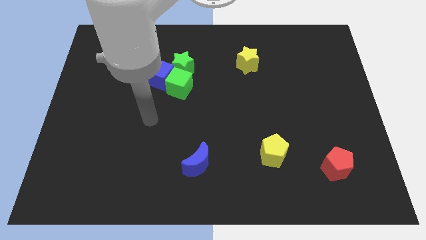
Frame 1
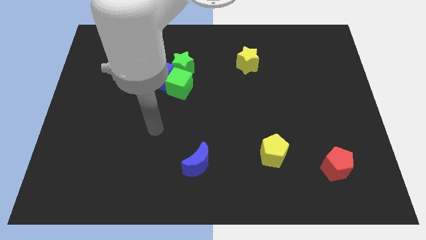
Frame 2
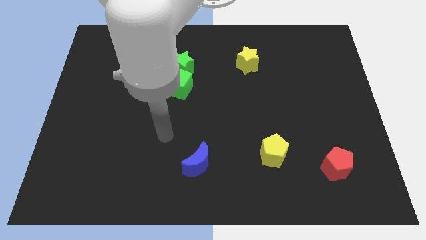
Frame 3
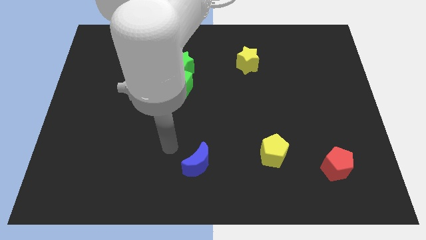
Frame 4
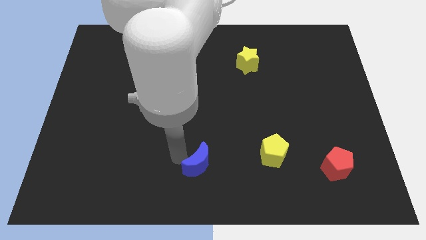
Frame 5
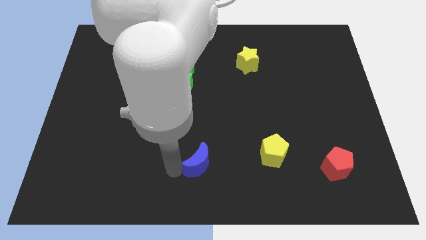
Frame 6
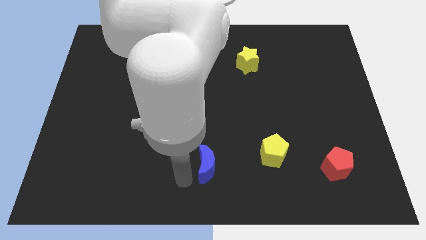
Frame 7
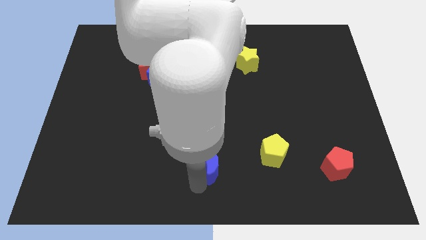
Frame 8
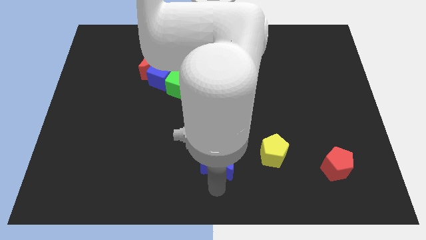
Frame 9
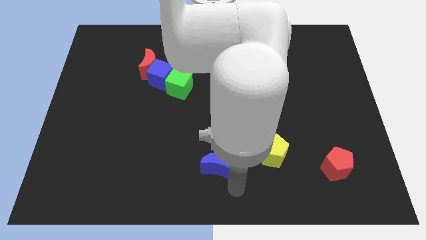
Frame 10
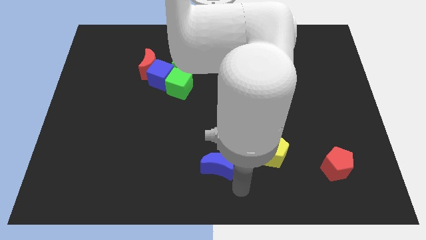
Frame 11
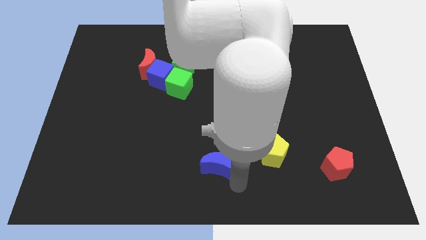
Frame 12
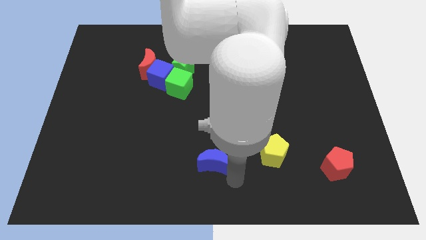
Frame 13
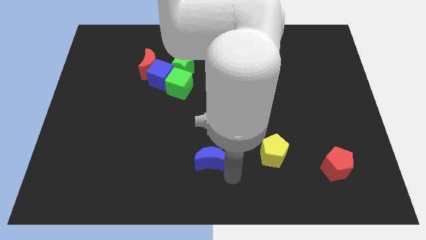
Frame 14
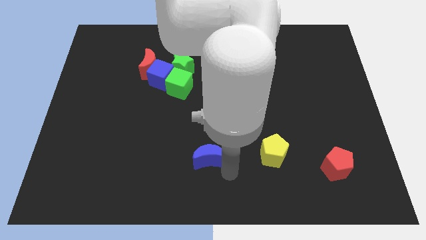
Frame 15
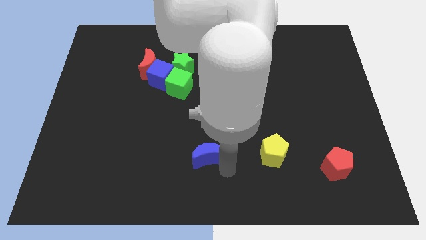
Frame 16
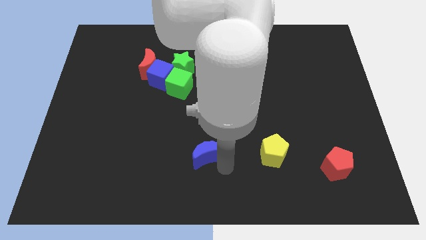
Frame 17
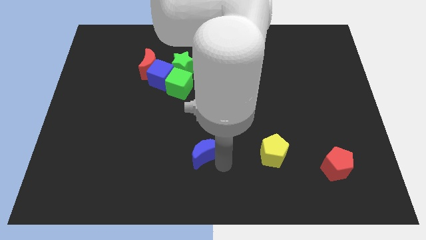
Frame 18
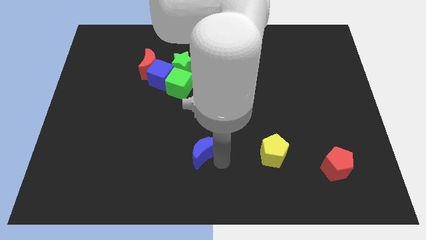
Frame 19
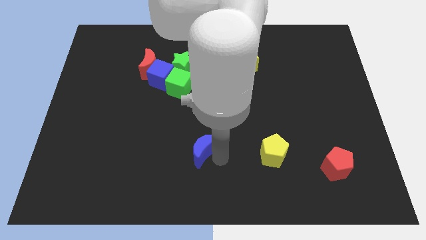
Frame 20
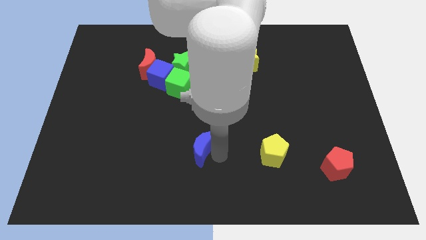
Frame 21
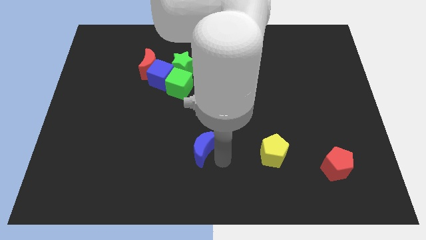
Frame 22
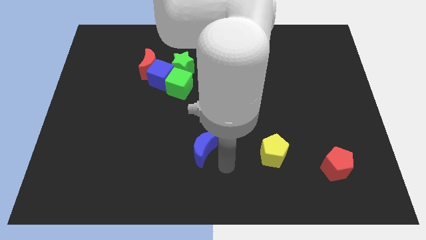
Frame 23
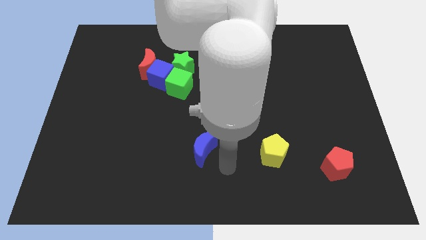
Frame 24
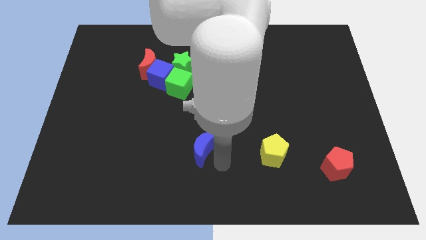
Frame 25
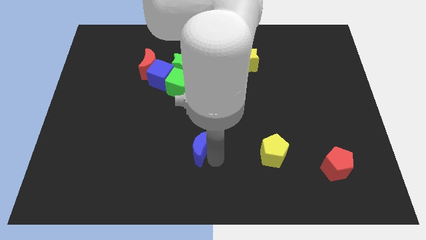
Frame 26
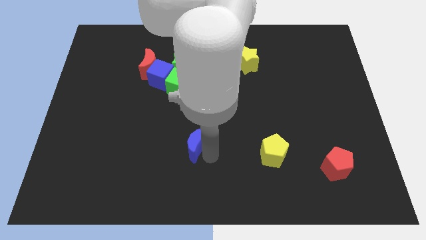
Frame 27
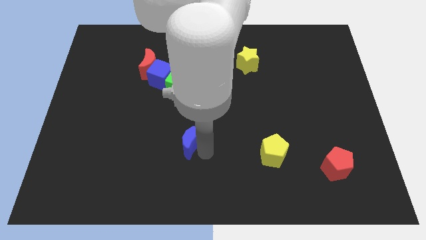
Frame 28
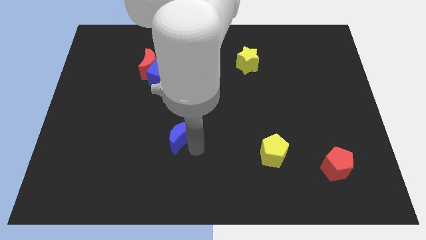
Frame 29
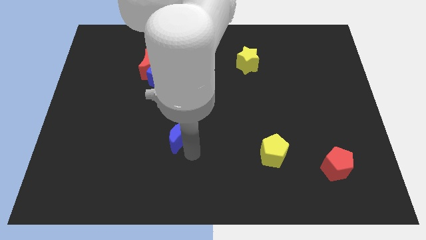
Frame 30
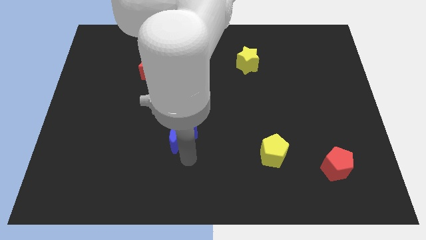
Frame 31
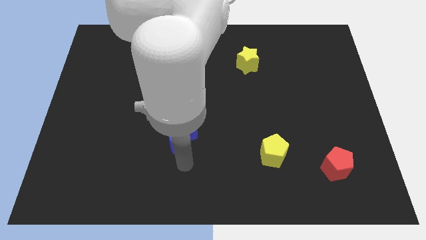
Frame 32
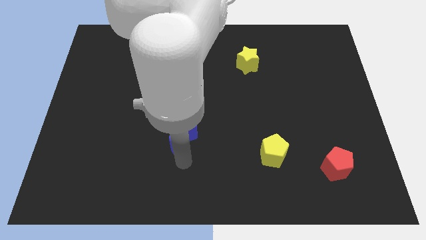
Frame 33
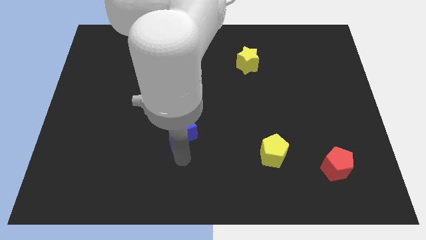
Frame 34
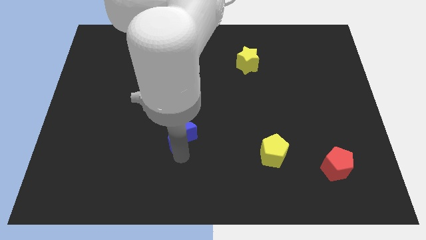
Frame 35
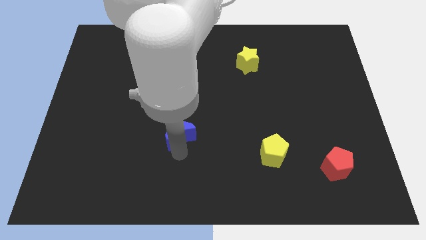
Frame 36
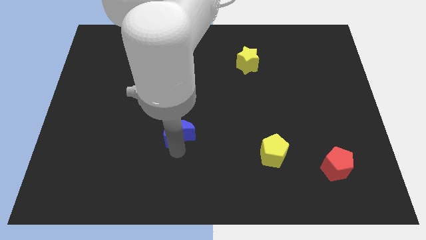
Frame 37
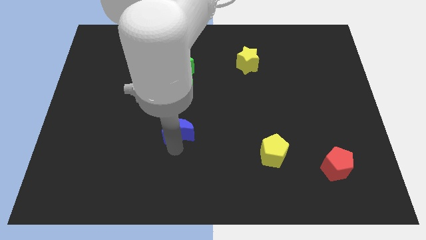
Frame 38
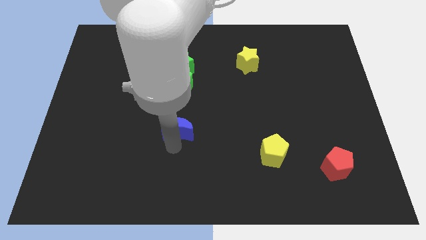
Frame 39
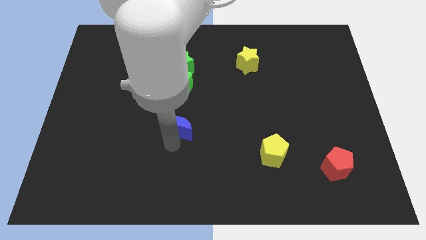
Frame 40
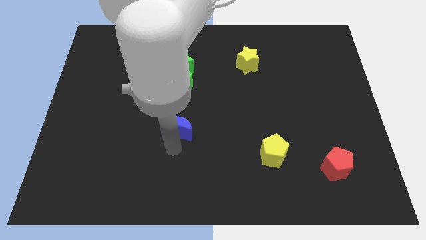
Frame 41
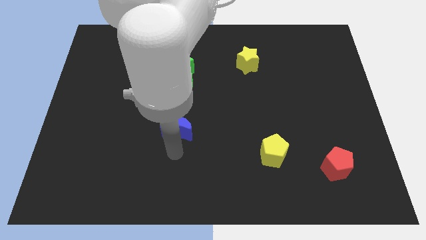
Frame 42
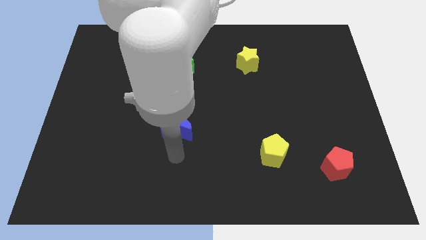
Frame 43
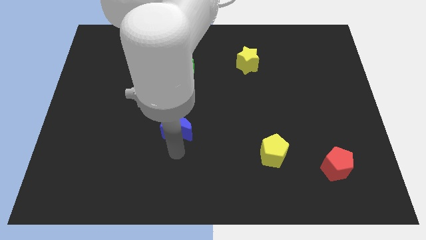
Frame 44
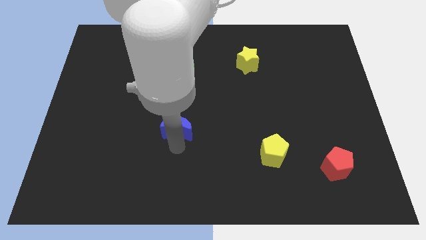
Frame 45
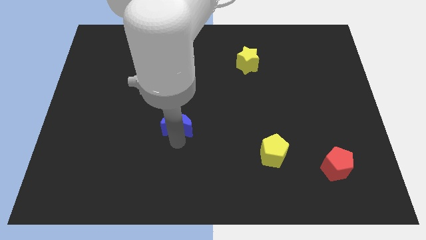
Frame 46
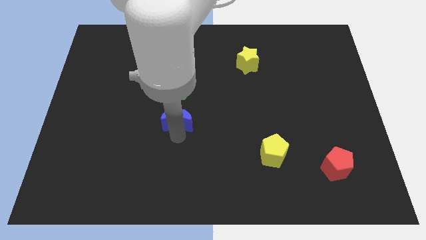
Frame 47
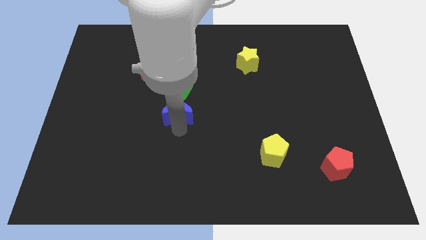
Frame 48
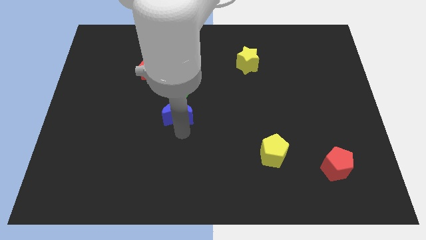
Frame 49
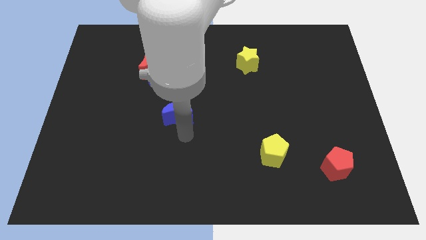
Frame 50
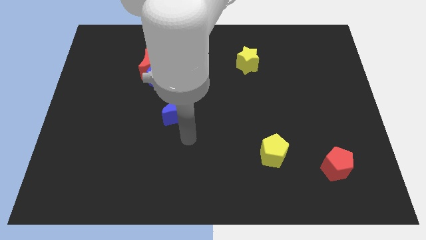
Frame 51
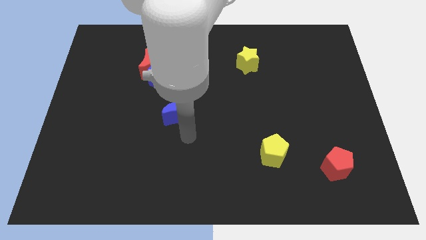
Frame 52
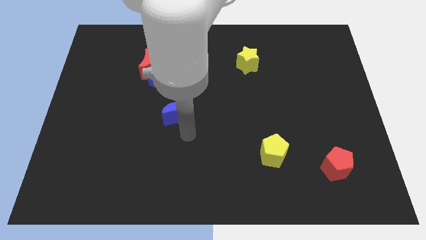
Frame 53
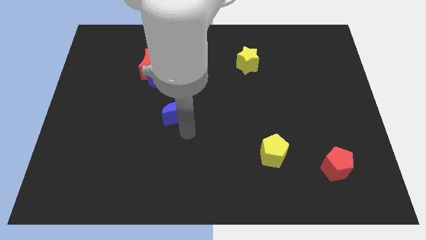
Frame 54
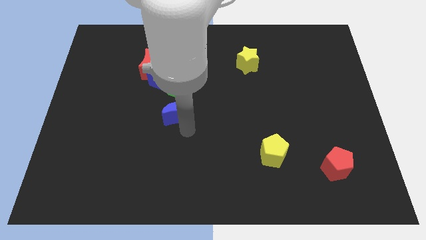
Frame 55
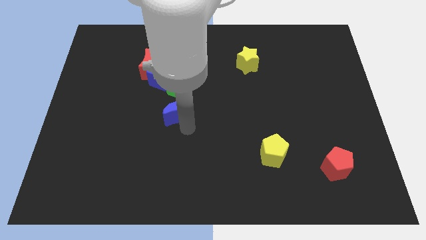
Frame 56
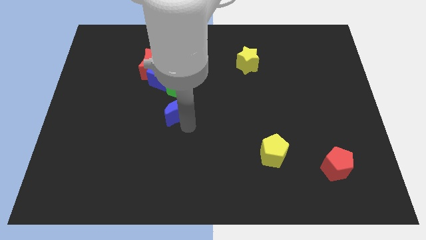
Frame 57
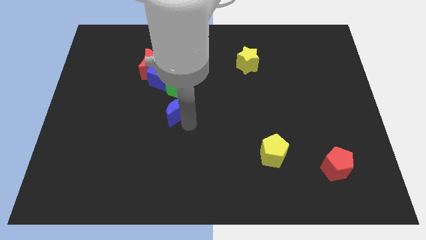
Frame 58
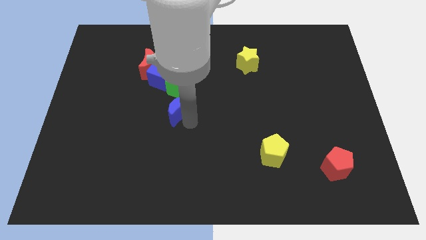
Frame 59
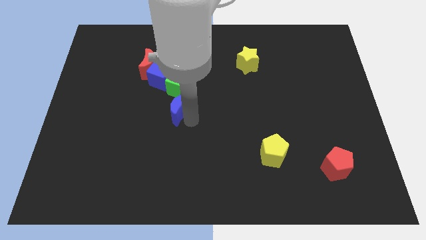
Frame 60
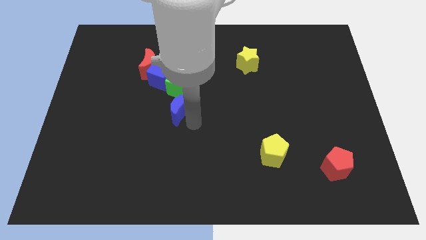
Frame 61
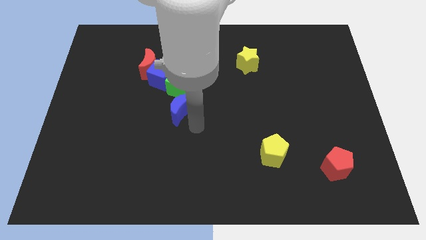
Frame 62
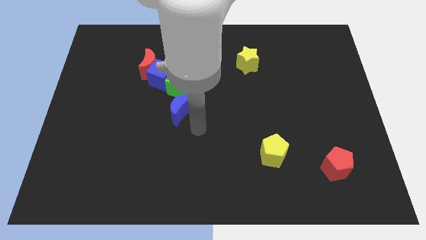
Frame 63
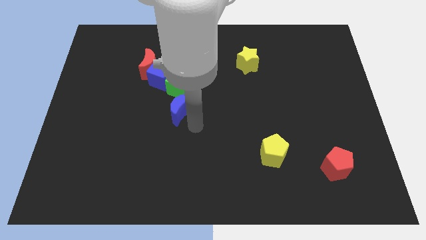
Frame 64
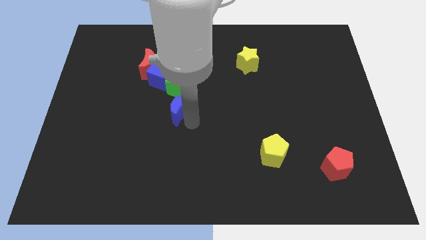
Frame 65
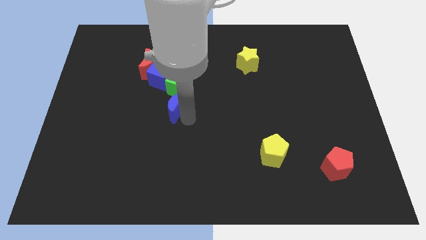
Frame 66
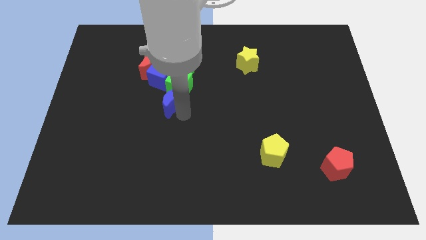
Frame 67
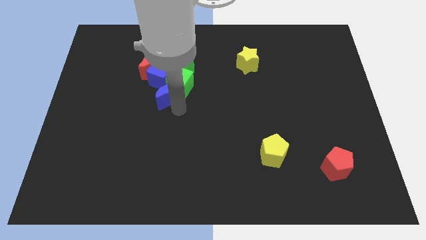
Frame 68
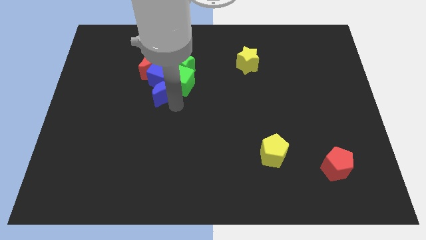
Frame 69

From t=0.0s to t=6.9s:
push the blue moon close to the blue cube

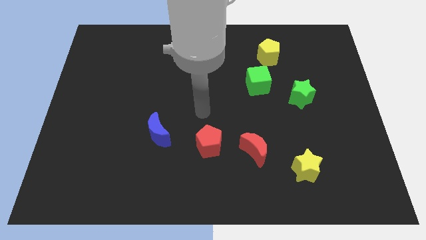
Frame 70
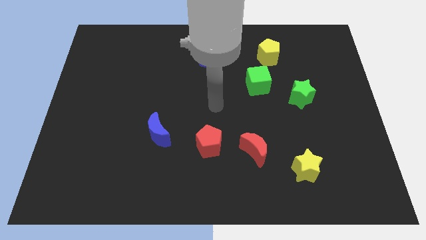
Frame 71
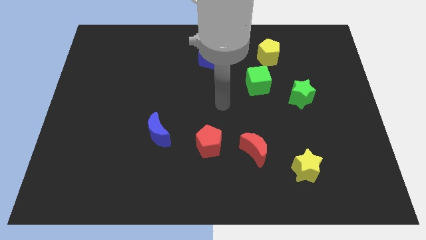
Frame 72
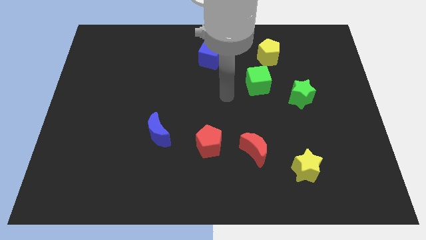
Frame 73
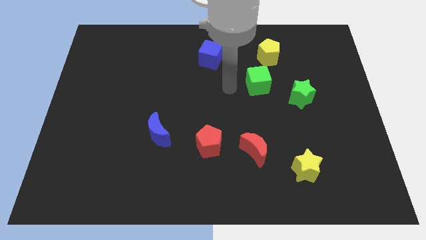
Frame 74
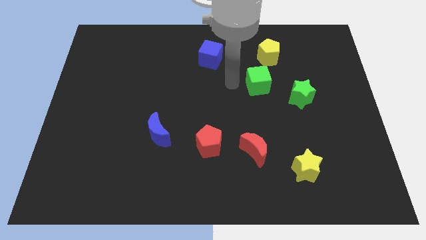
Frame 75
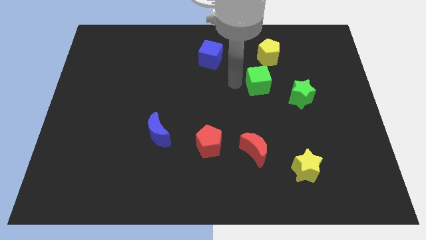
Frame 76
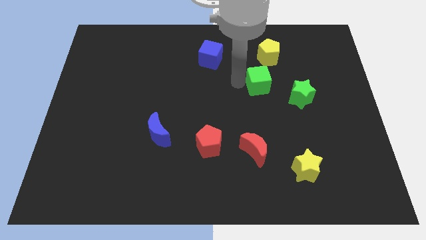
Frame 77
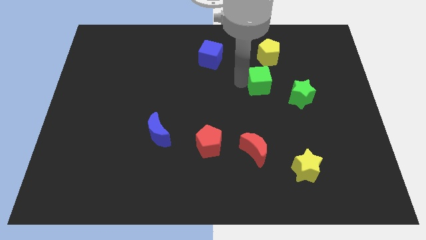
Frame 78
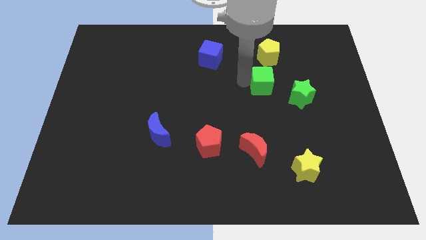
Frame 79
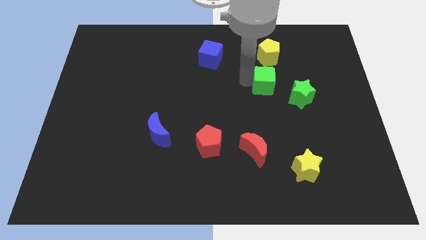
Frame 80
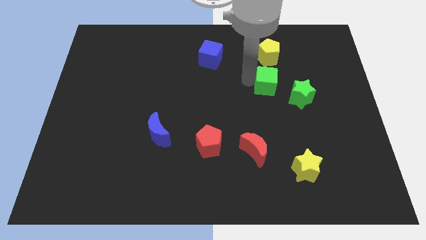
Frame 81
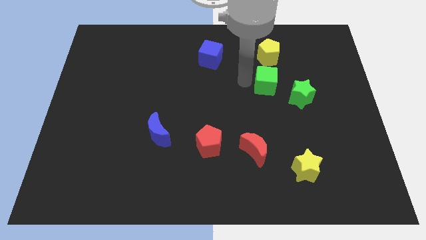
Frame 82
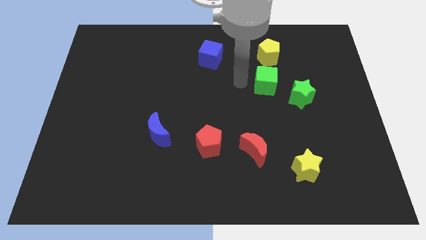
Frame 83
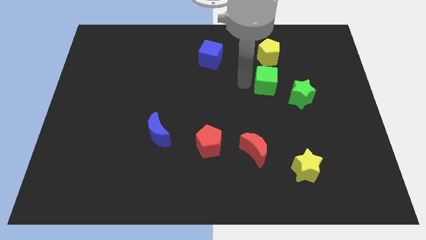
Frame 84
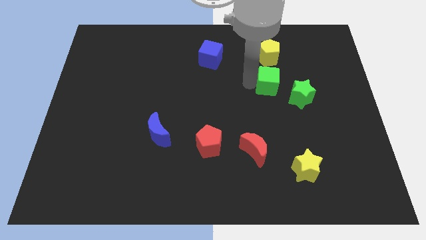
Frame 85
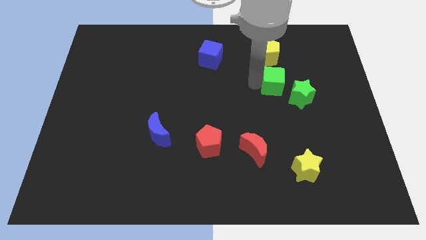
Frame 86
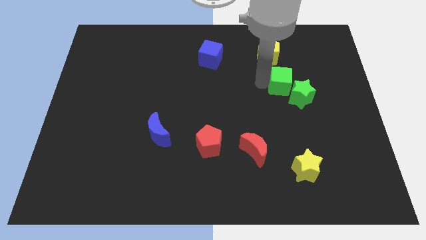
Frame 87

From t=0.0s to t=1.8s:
put the green cube close to the green star
